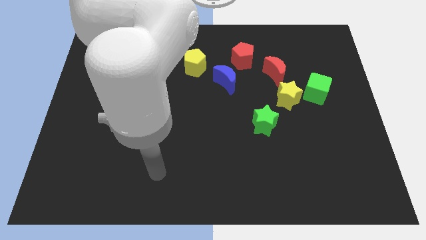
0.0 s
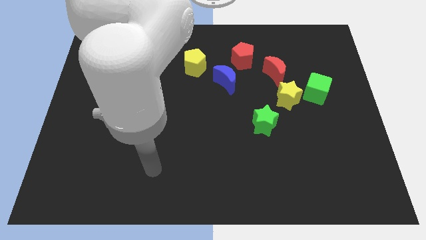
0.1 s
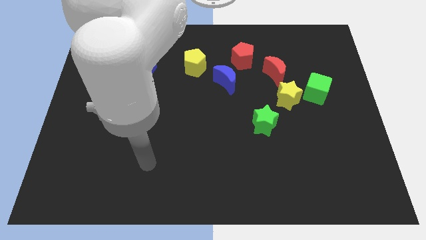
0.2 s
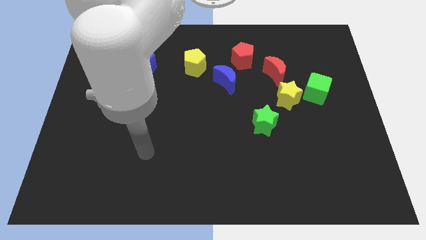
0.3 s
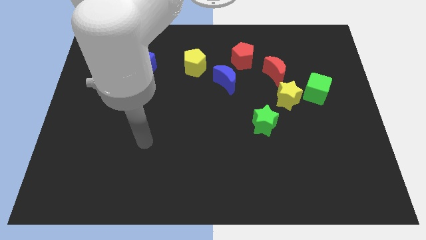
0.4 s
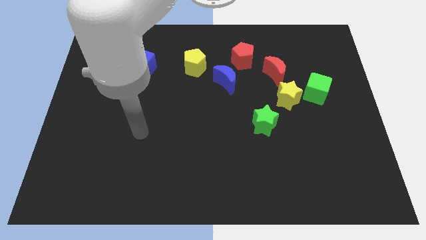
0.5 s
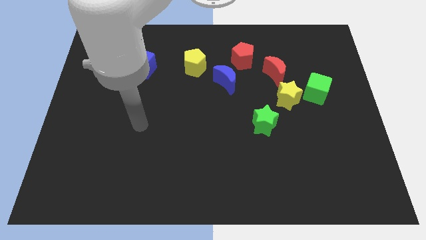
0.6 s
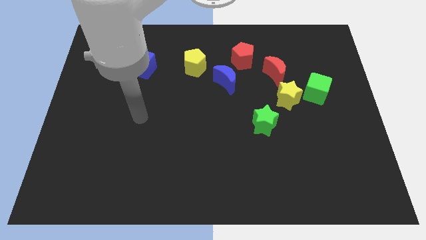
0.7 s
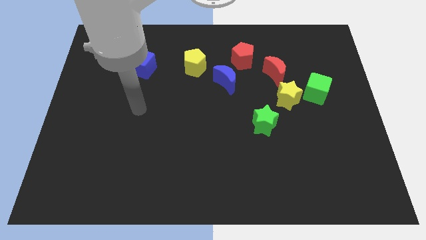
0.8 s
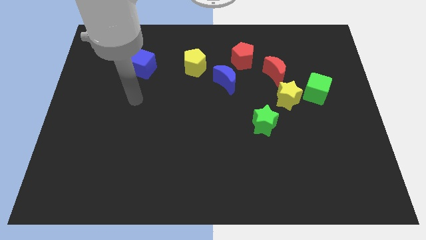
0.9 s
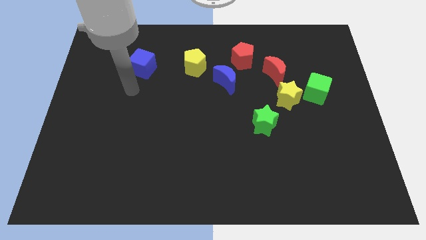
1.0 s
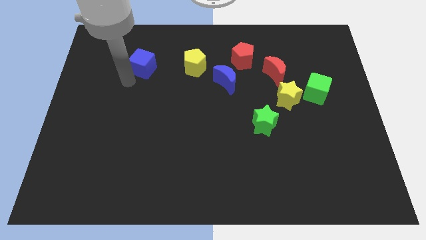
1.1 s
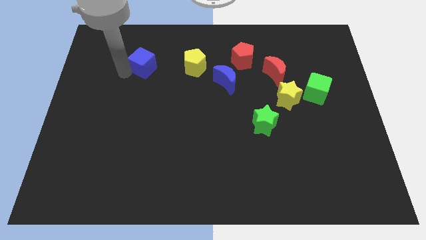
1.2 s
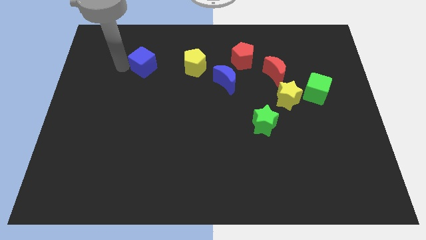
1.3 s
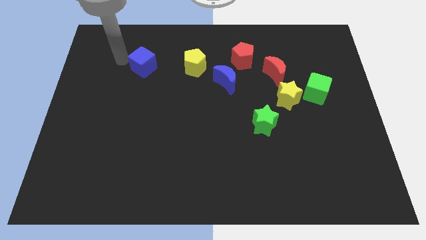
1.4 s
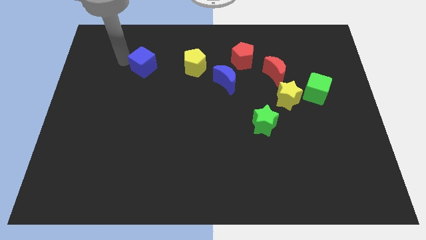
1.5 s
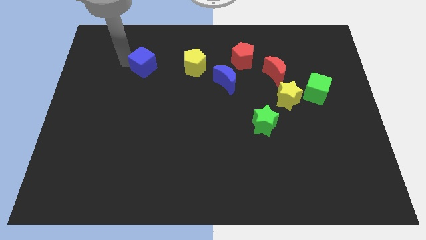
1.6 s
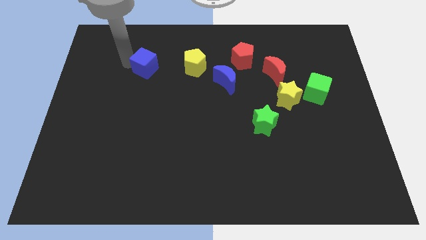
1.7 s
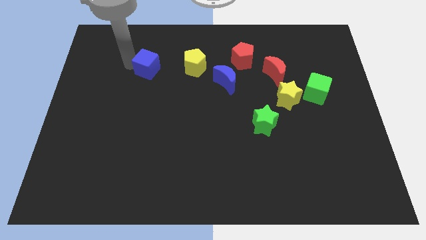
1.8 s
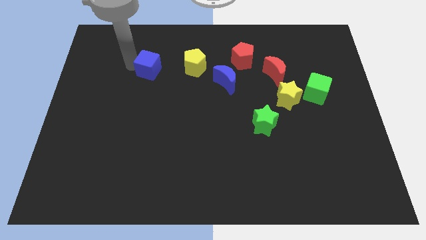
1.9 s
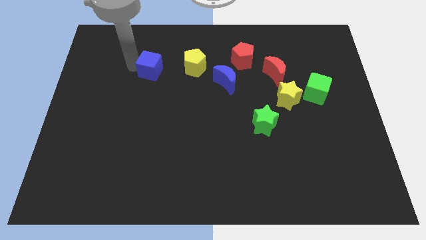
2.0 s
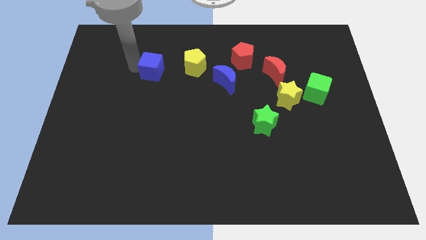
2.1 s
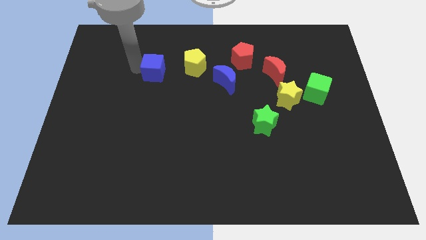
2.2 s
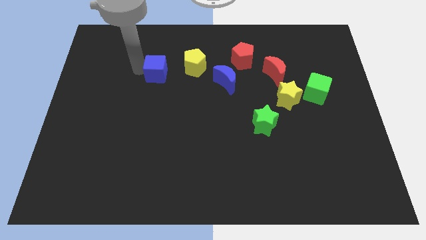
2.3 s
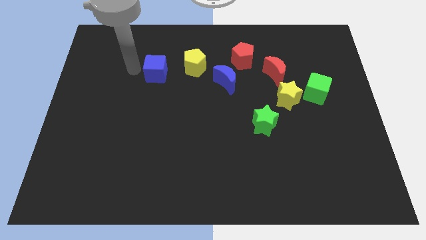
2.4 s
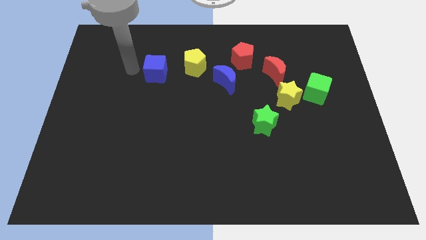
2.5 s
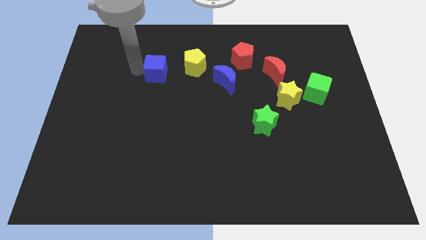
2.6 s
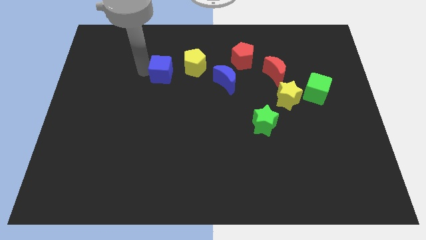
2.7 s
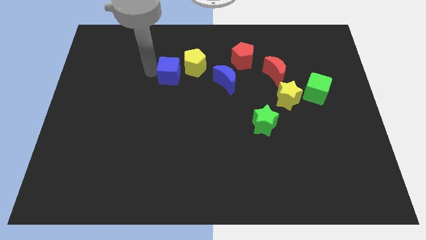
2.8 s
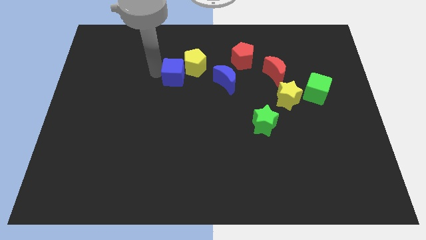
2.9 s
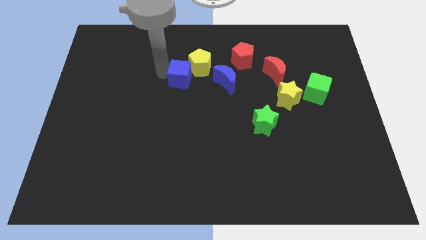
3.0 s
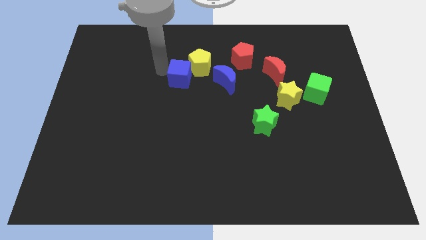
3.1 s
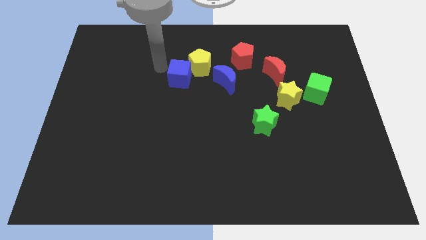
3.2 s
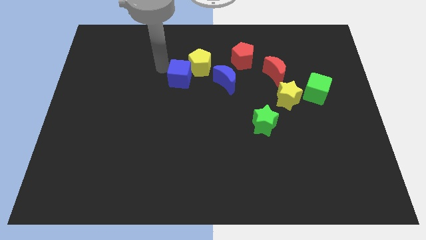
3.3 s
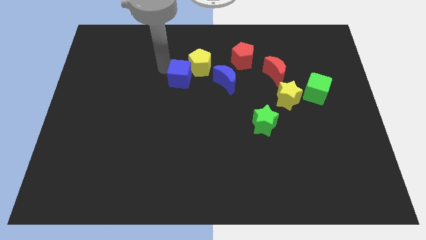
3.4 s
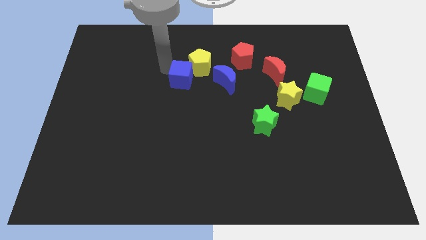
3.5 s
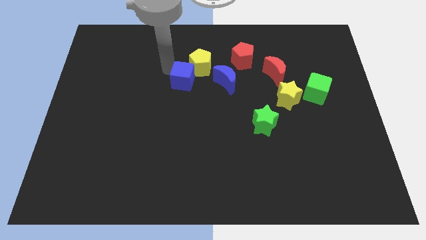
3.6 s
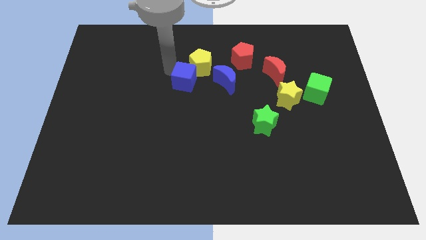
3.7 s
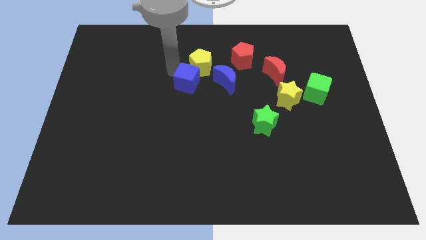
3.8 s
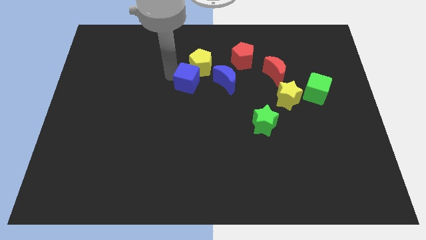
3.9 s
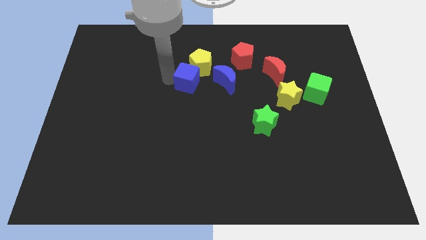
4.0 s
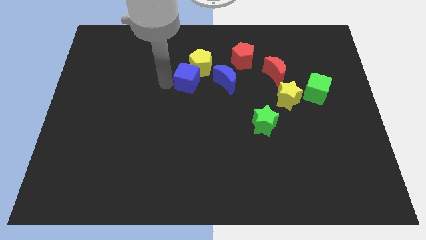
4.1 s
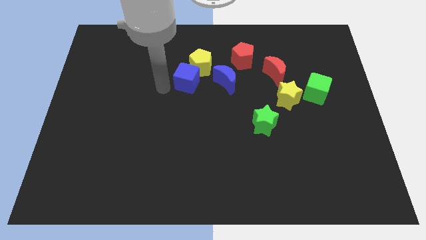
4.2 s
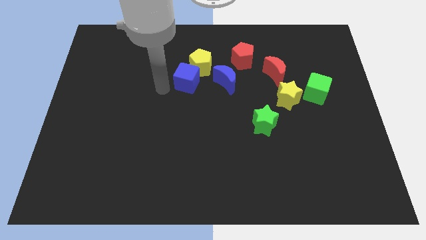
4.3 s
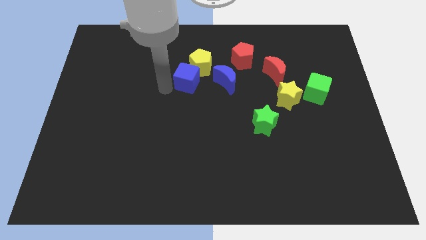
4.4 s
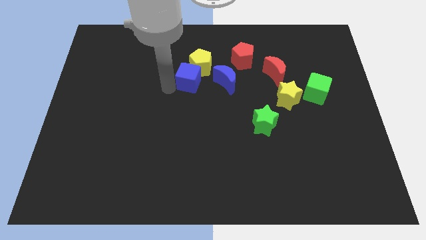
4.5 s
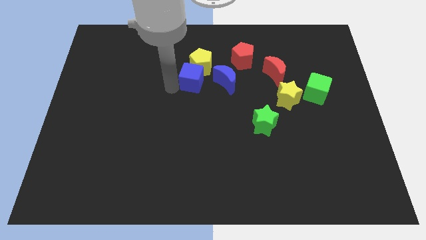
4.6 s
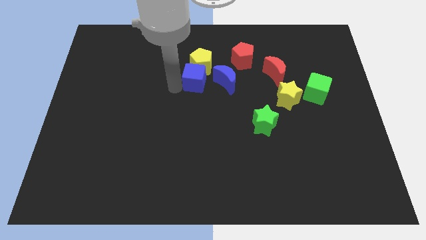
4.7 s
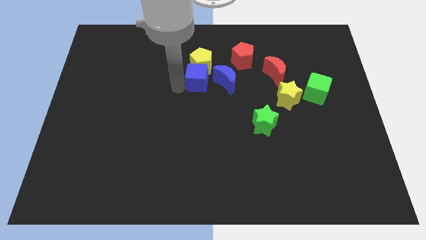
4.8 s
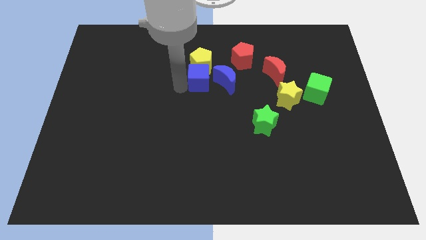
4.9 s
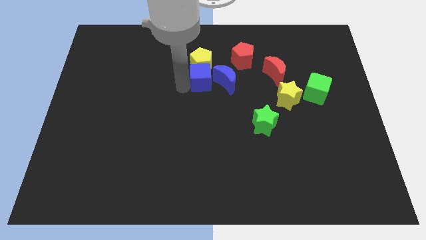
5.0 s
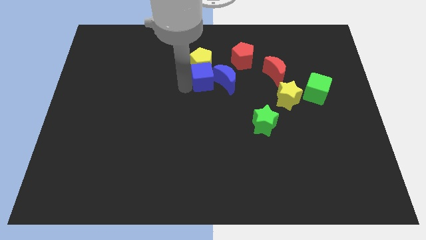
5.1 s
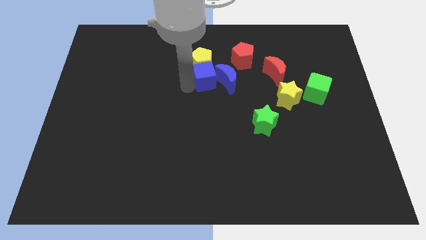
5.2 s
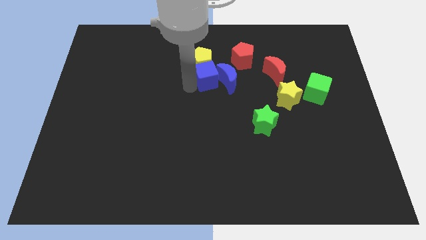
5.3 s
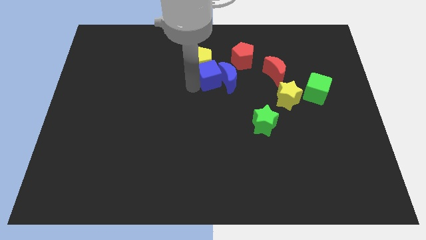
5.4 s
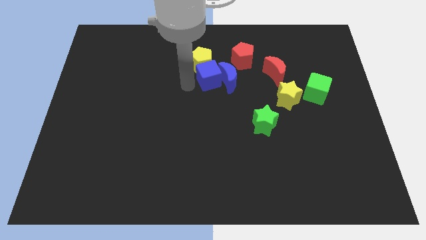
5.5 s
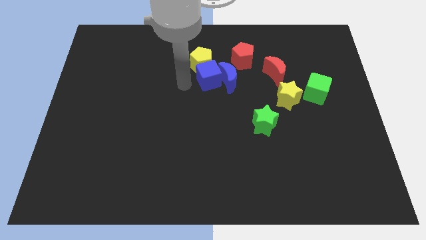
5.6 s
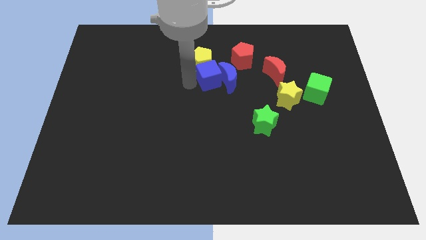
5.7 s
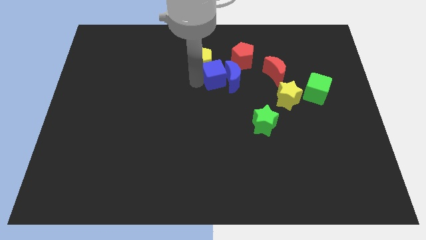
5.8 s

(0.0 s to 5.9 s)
put the blue cube just left of the red moon

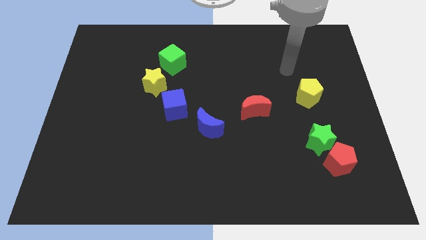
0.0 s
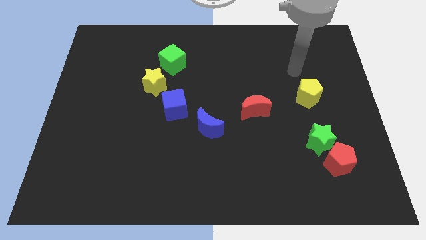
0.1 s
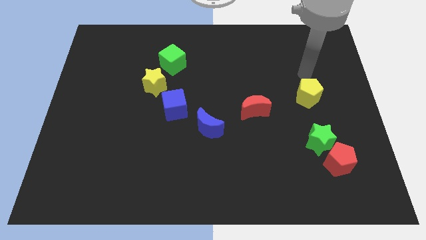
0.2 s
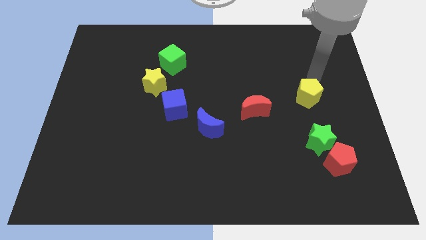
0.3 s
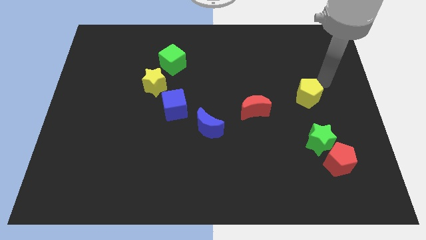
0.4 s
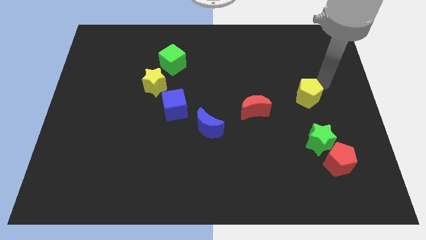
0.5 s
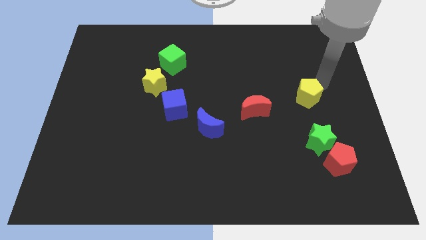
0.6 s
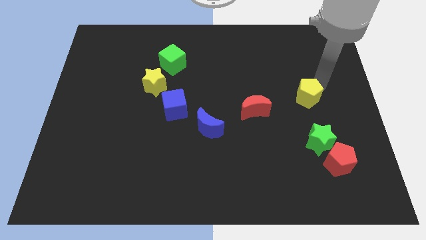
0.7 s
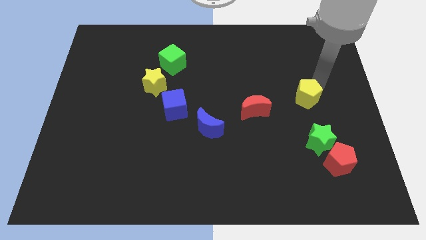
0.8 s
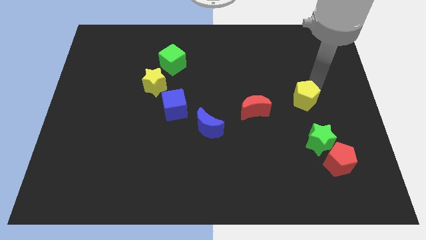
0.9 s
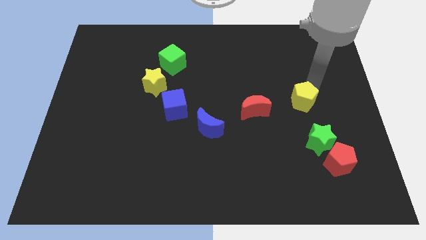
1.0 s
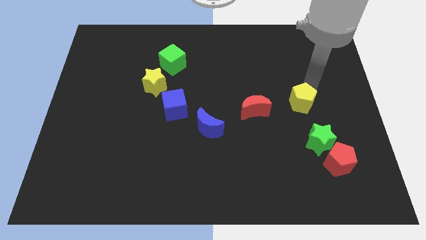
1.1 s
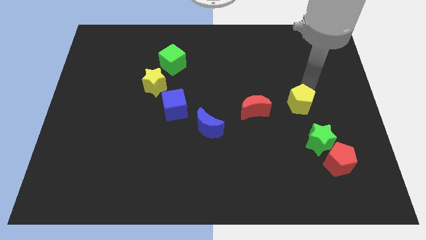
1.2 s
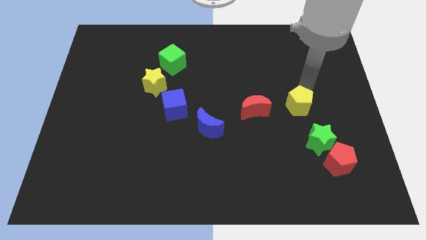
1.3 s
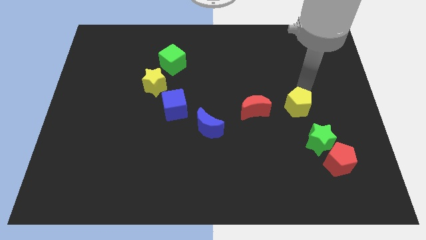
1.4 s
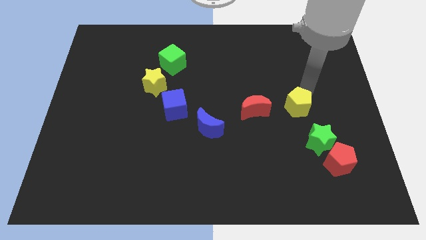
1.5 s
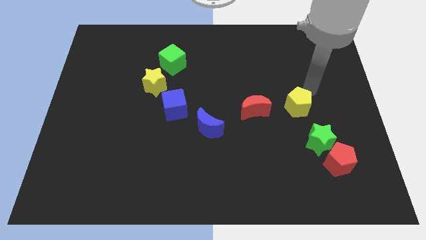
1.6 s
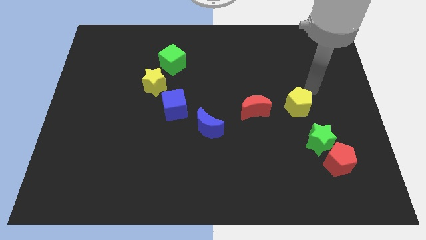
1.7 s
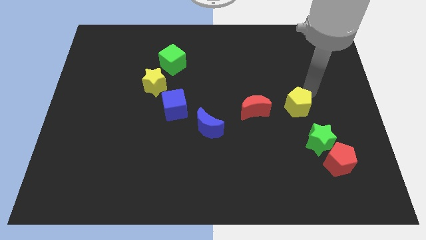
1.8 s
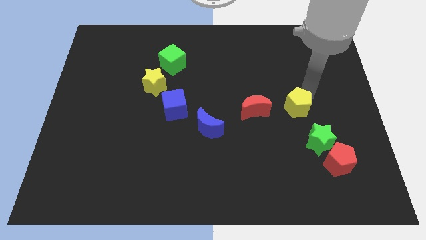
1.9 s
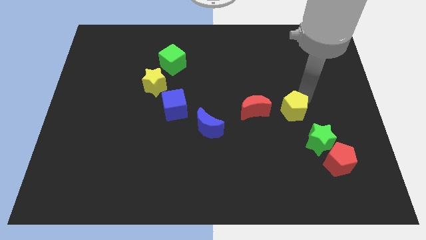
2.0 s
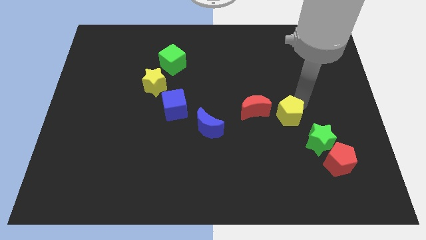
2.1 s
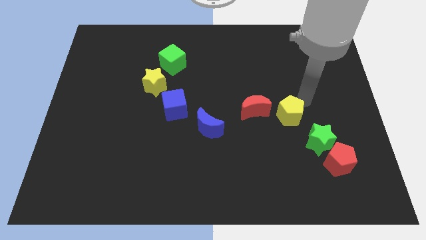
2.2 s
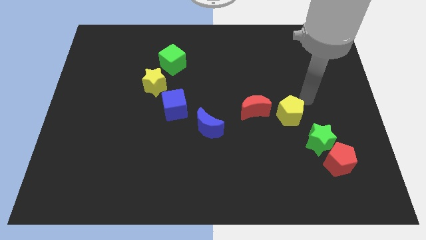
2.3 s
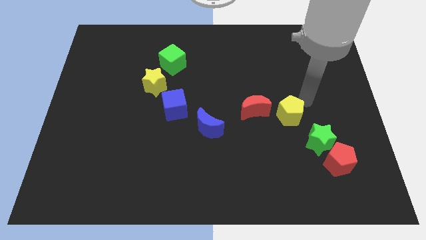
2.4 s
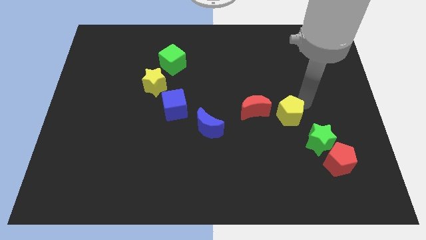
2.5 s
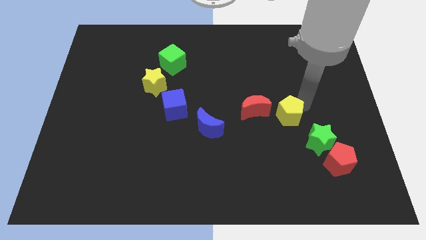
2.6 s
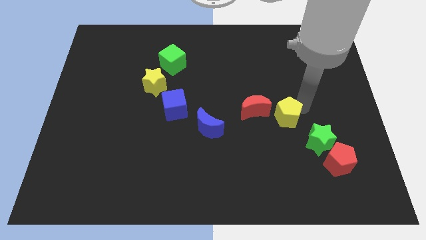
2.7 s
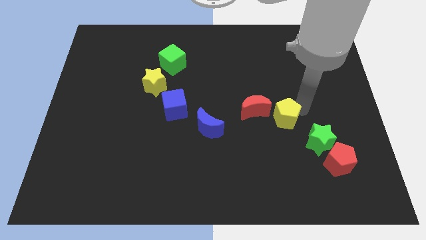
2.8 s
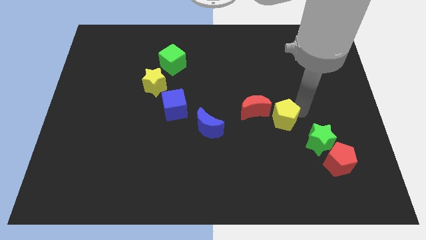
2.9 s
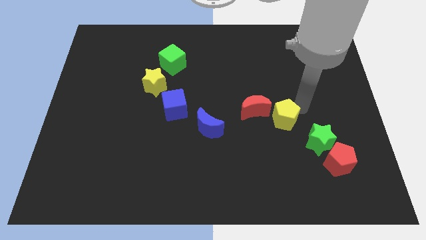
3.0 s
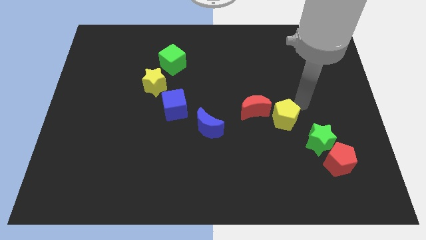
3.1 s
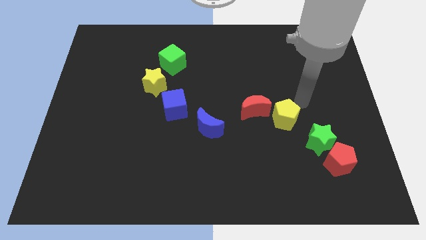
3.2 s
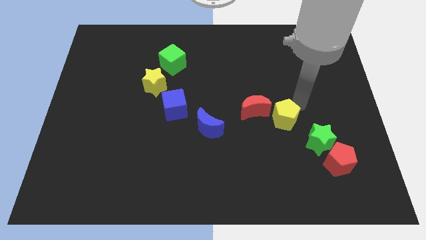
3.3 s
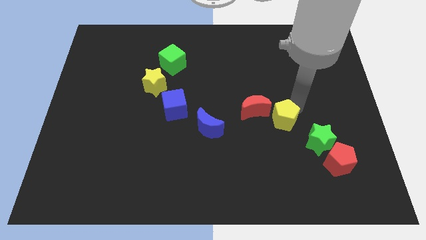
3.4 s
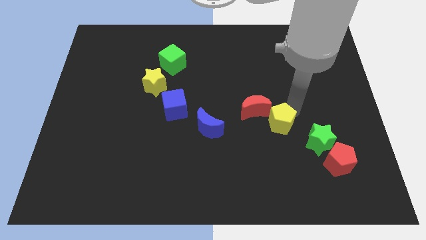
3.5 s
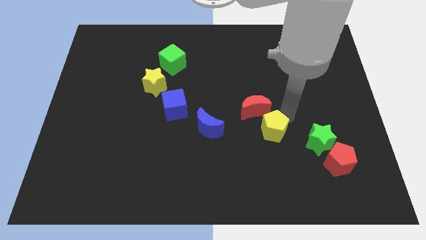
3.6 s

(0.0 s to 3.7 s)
move the yellow pentagon to the bottom side of the red moon
